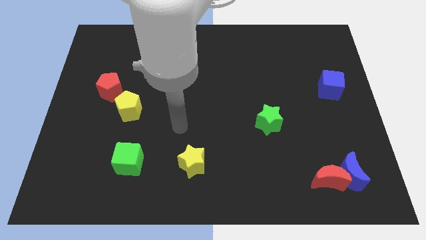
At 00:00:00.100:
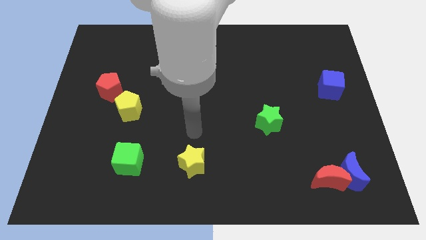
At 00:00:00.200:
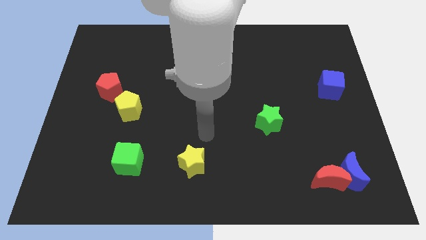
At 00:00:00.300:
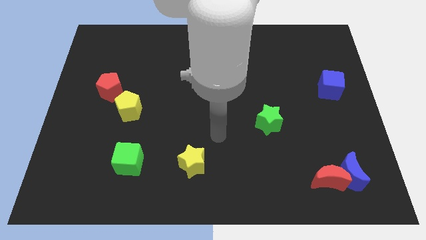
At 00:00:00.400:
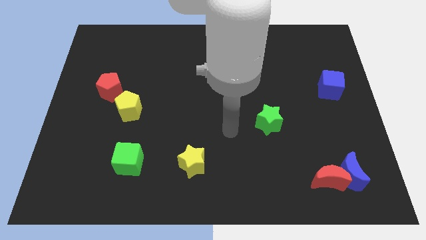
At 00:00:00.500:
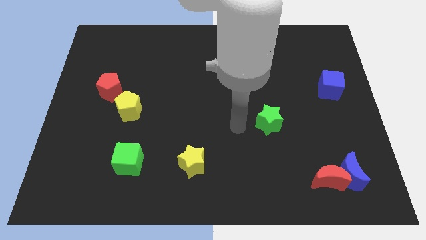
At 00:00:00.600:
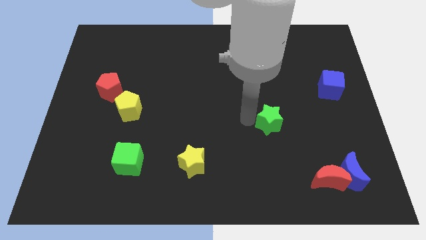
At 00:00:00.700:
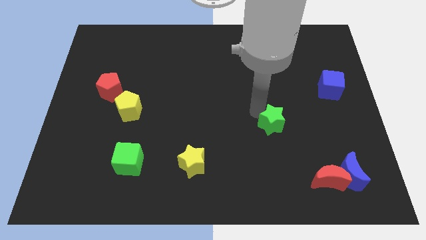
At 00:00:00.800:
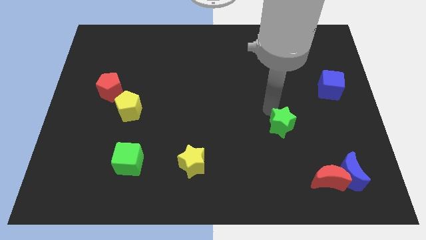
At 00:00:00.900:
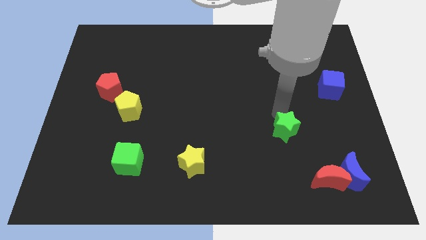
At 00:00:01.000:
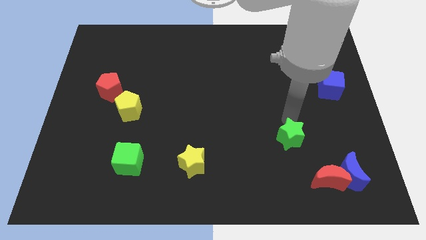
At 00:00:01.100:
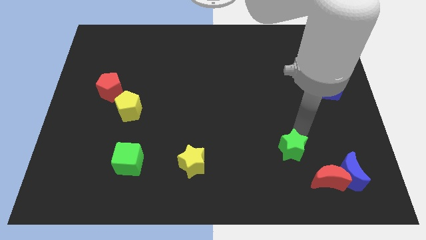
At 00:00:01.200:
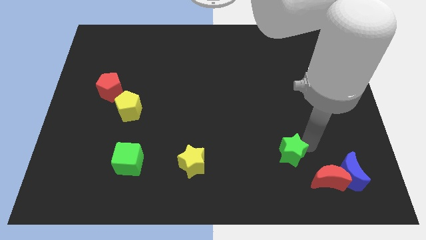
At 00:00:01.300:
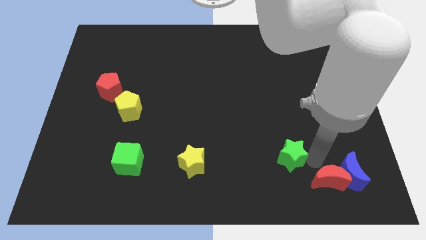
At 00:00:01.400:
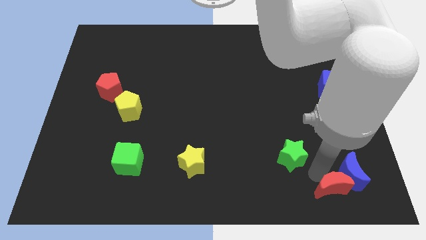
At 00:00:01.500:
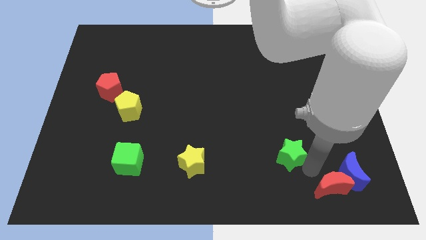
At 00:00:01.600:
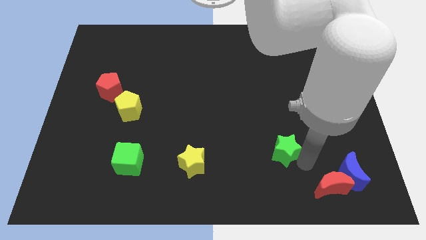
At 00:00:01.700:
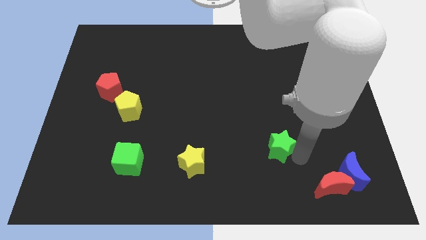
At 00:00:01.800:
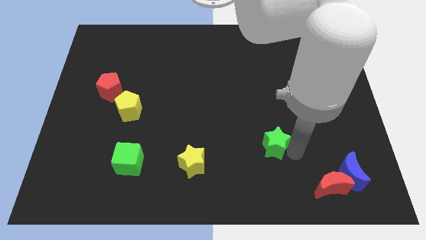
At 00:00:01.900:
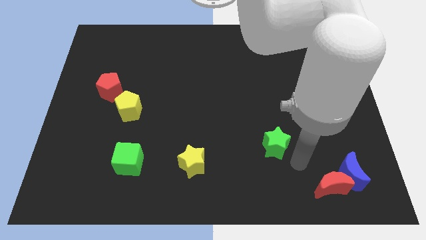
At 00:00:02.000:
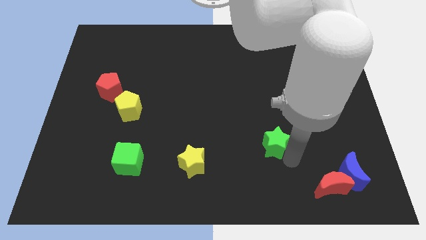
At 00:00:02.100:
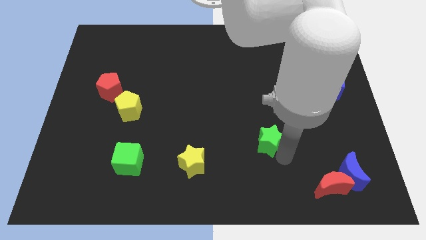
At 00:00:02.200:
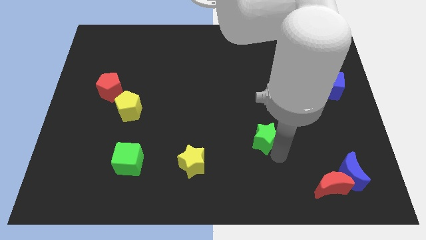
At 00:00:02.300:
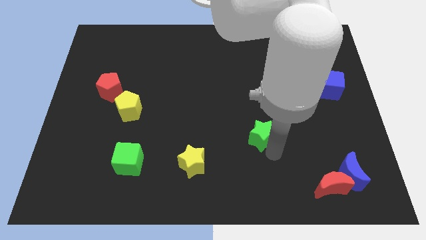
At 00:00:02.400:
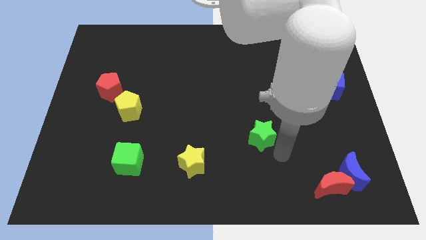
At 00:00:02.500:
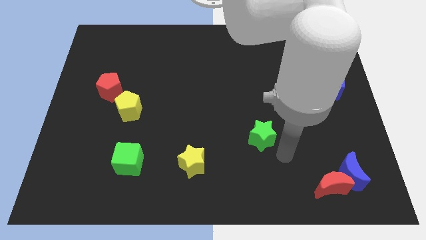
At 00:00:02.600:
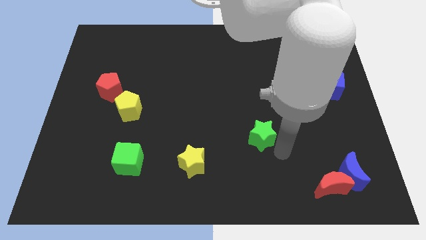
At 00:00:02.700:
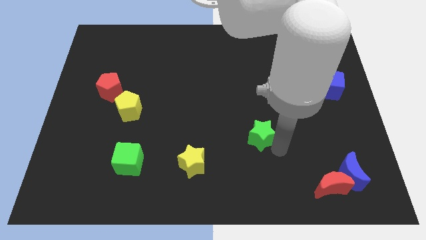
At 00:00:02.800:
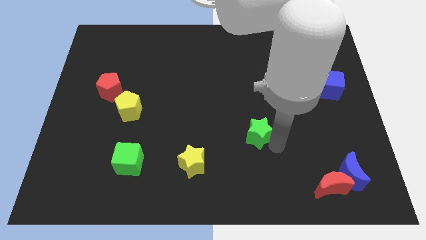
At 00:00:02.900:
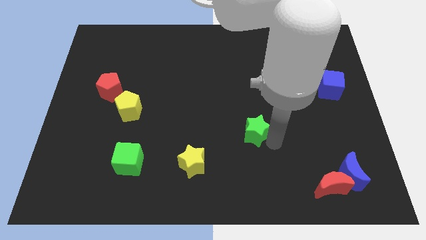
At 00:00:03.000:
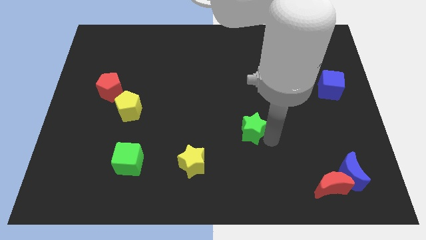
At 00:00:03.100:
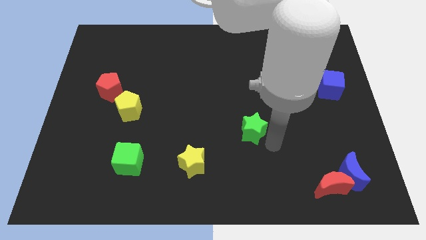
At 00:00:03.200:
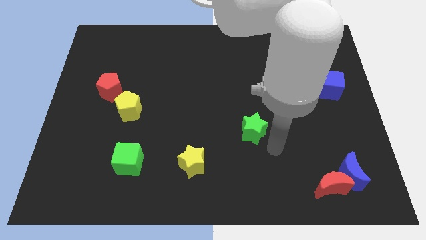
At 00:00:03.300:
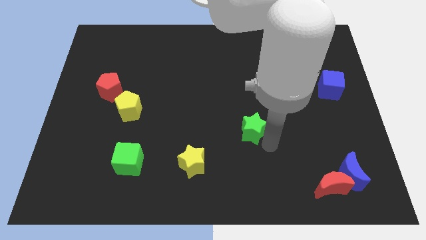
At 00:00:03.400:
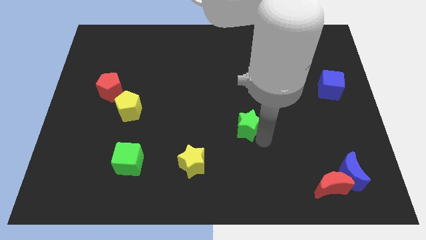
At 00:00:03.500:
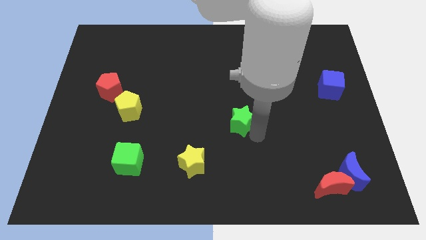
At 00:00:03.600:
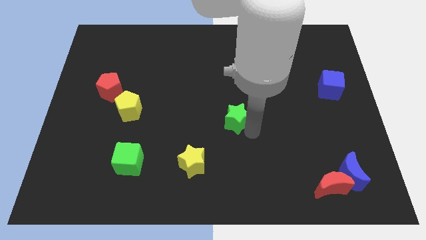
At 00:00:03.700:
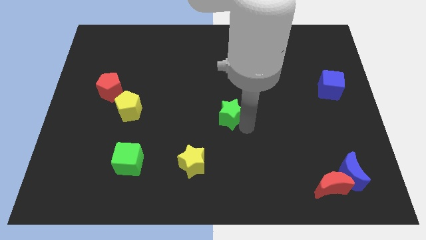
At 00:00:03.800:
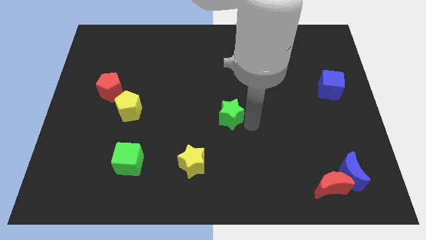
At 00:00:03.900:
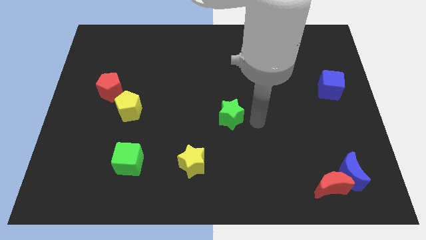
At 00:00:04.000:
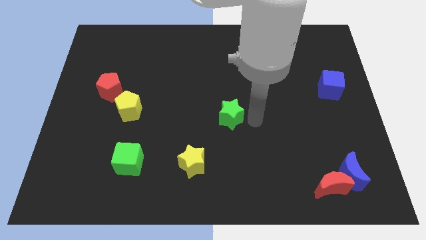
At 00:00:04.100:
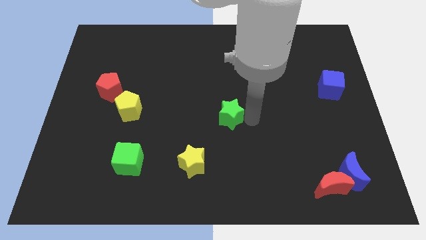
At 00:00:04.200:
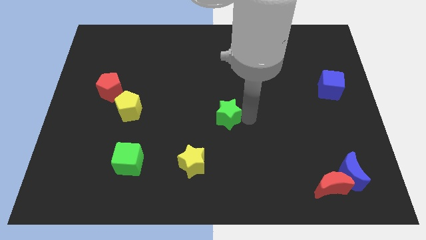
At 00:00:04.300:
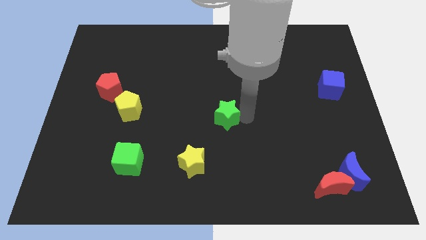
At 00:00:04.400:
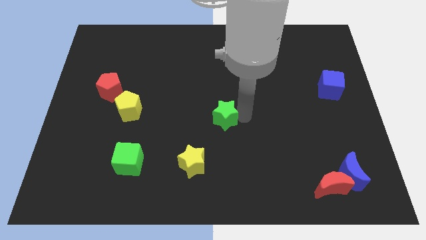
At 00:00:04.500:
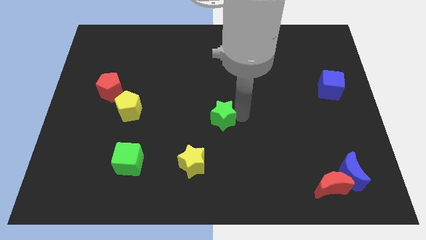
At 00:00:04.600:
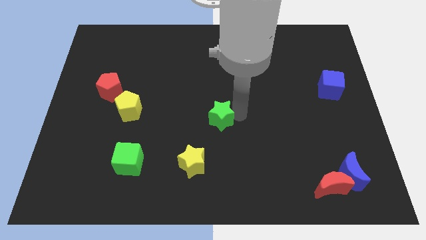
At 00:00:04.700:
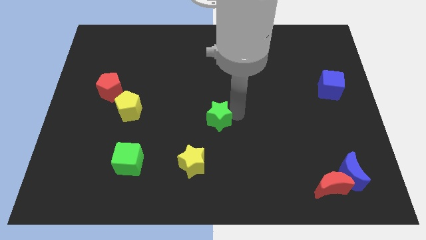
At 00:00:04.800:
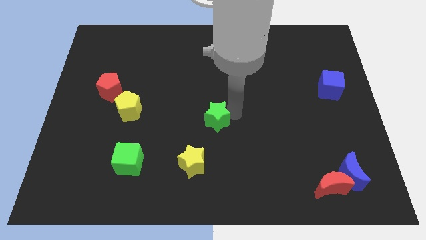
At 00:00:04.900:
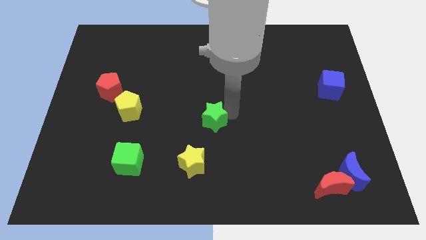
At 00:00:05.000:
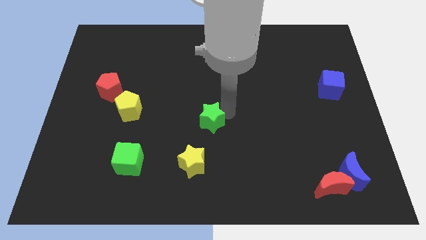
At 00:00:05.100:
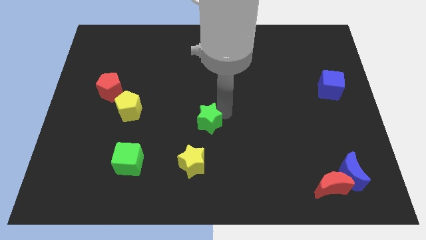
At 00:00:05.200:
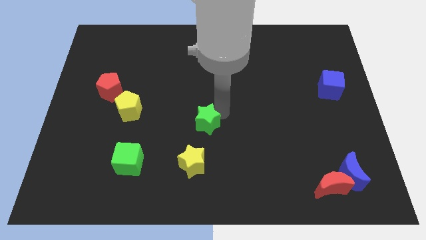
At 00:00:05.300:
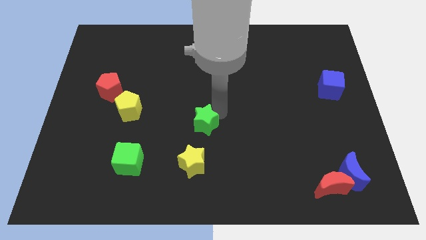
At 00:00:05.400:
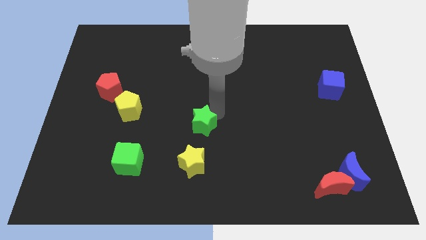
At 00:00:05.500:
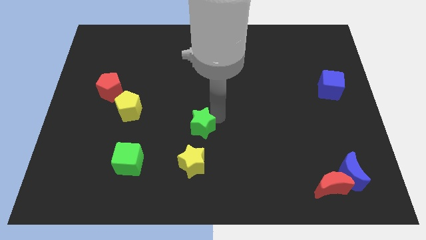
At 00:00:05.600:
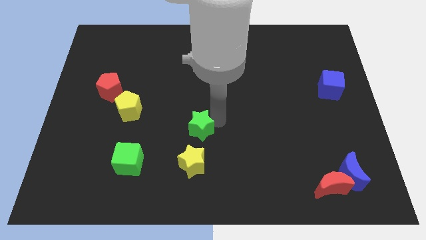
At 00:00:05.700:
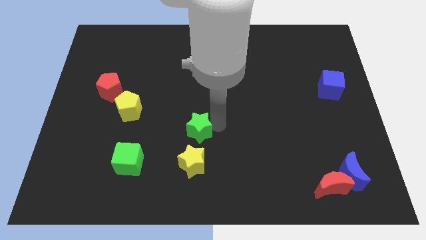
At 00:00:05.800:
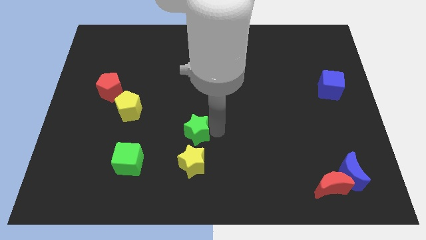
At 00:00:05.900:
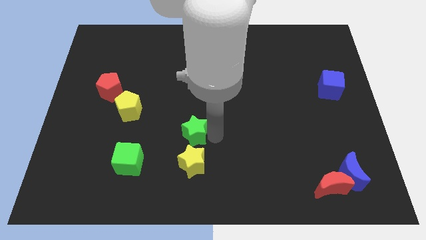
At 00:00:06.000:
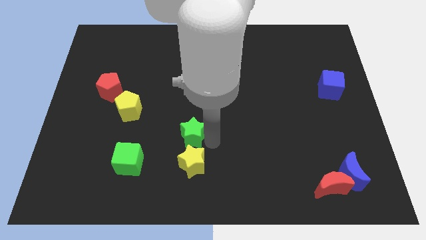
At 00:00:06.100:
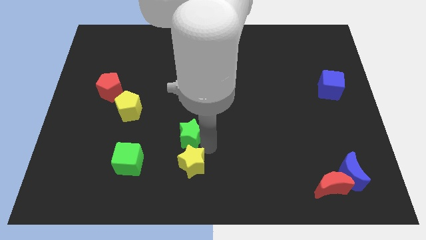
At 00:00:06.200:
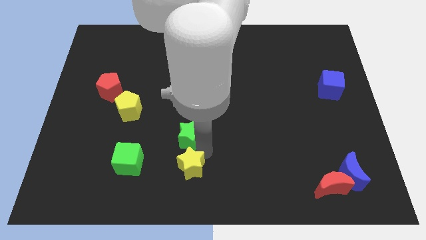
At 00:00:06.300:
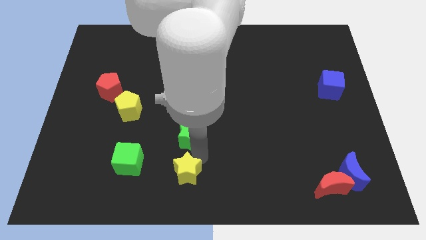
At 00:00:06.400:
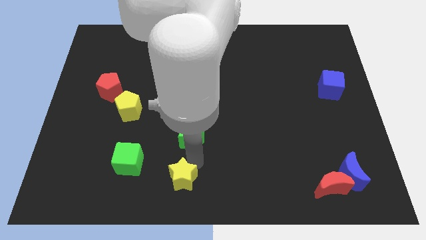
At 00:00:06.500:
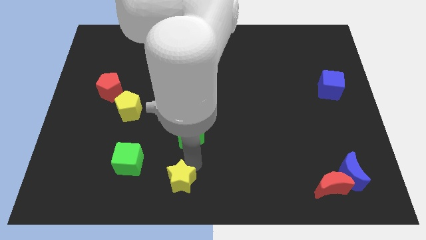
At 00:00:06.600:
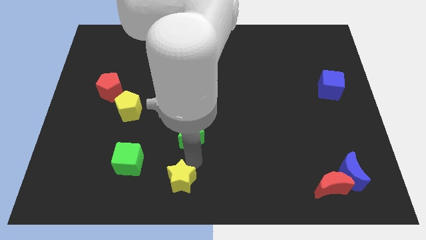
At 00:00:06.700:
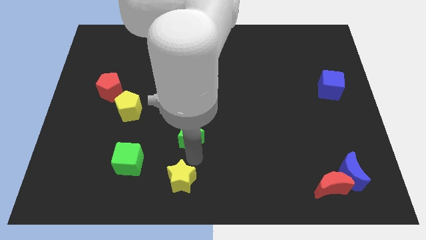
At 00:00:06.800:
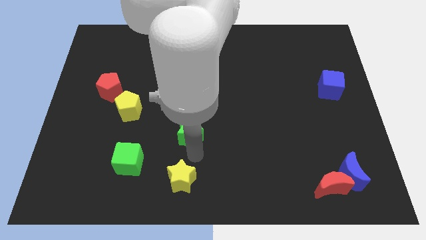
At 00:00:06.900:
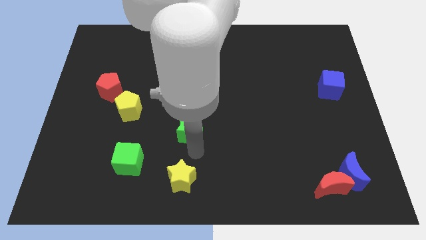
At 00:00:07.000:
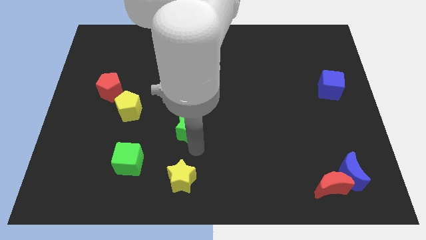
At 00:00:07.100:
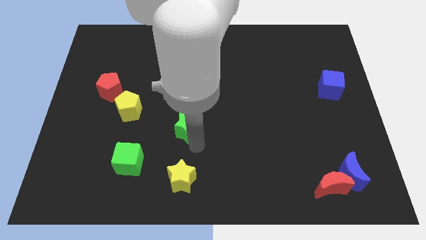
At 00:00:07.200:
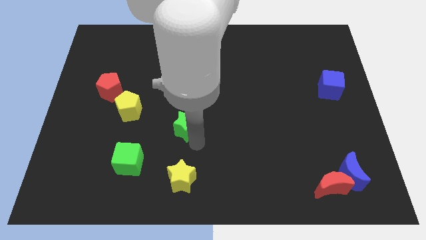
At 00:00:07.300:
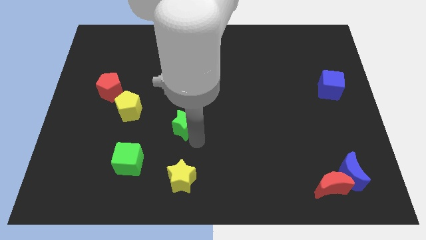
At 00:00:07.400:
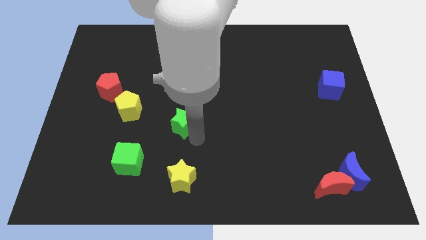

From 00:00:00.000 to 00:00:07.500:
push the green star just right of the yellow pentagon
